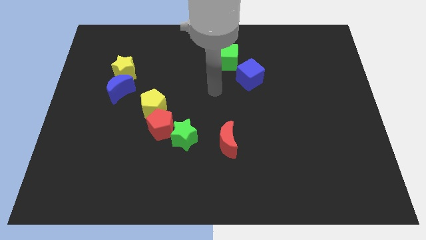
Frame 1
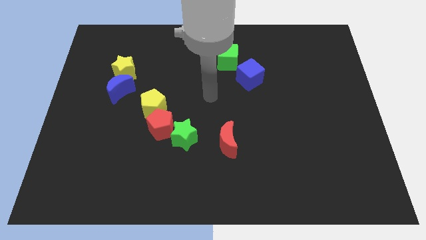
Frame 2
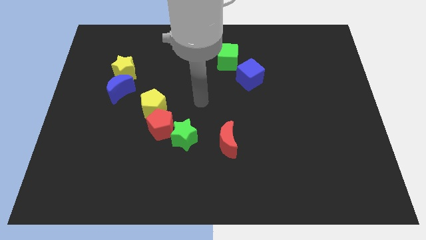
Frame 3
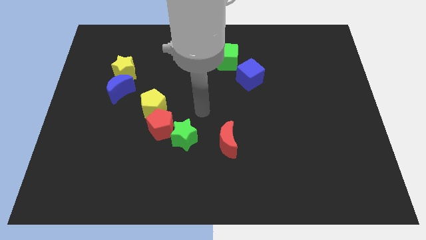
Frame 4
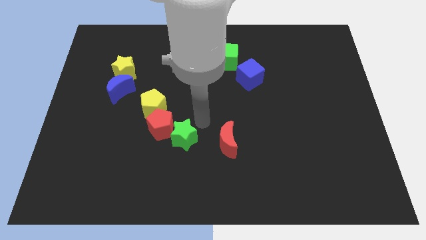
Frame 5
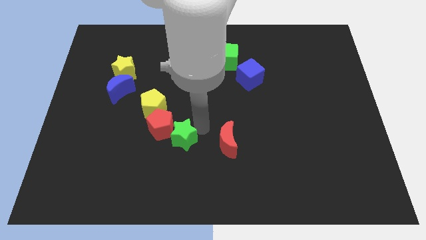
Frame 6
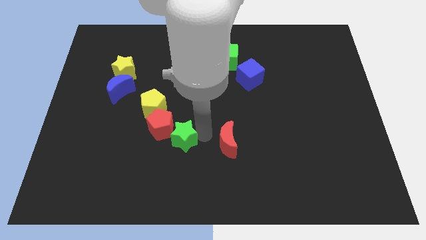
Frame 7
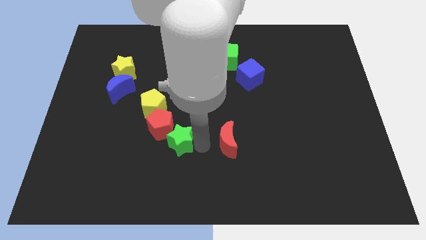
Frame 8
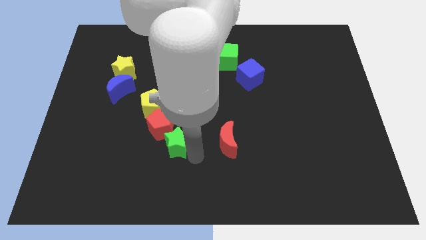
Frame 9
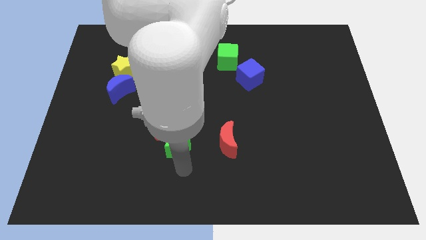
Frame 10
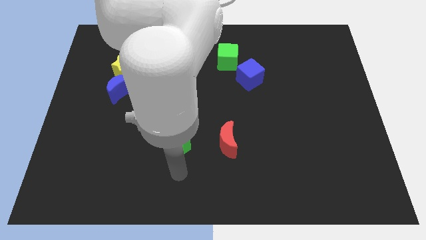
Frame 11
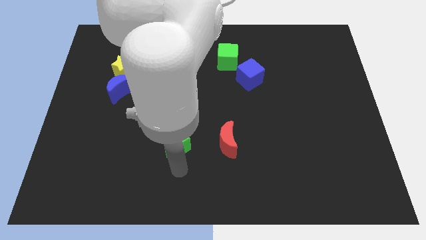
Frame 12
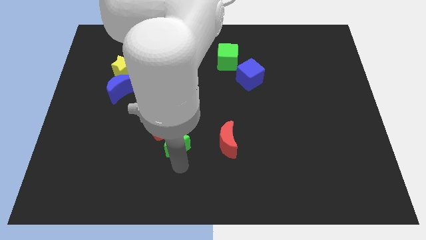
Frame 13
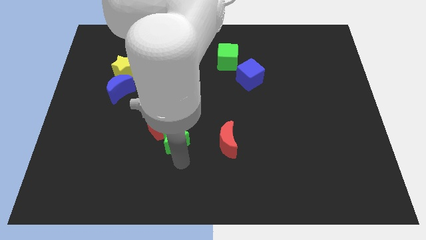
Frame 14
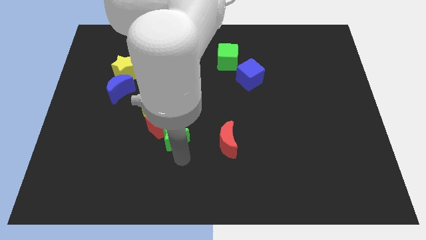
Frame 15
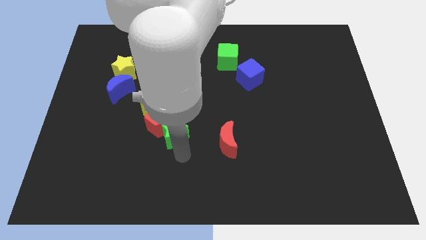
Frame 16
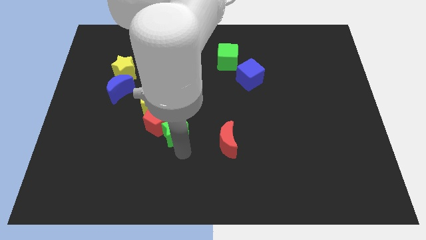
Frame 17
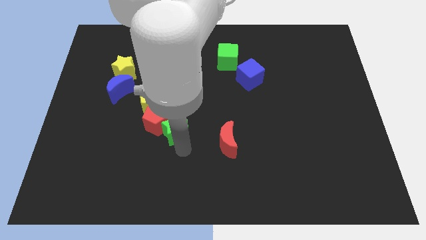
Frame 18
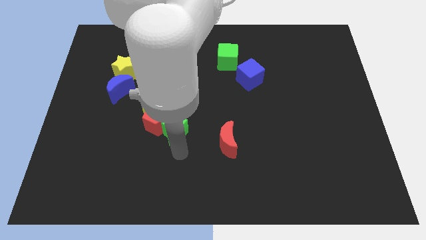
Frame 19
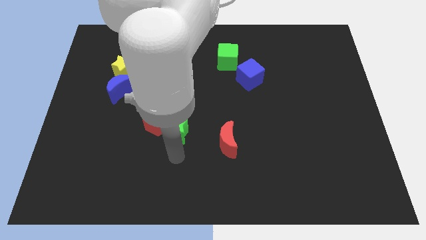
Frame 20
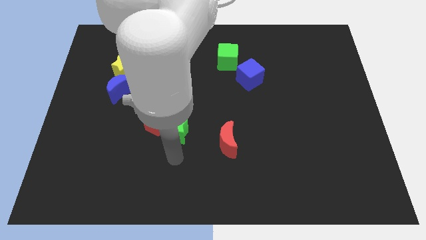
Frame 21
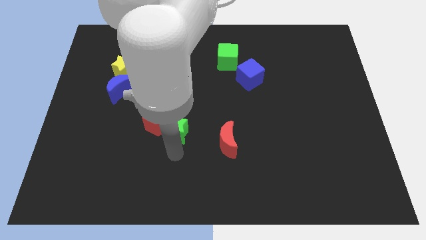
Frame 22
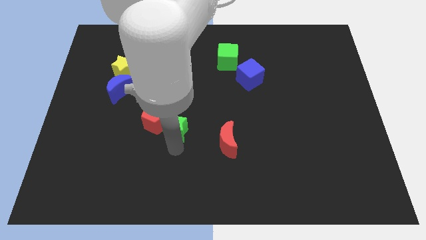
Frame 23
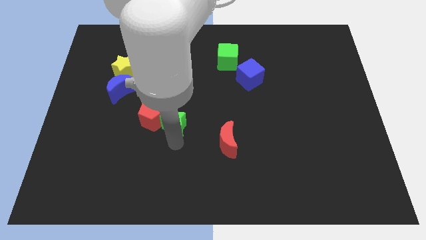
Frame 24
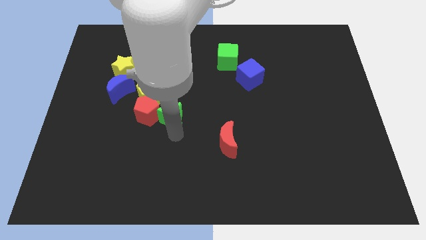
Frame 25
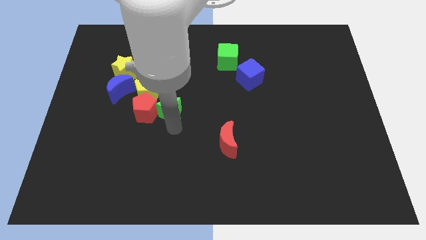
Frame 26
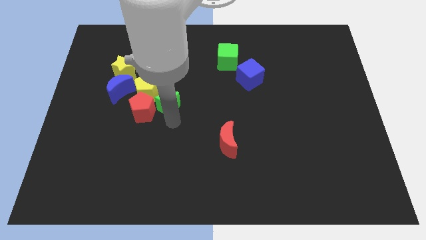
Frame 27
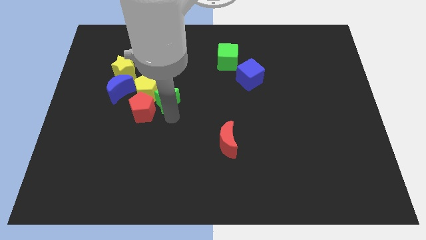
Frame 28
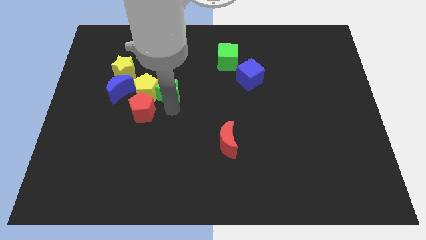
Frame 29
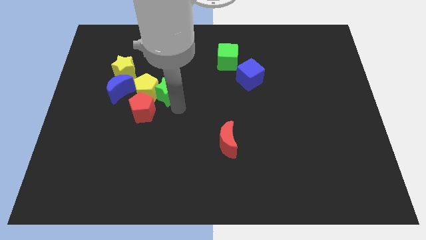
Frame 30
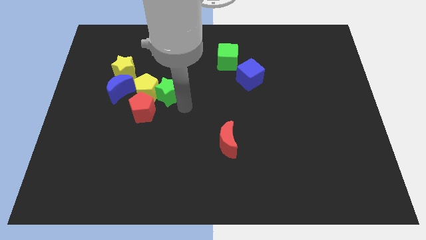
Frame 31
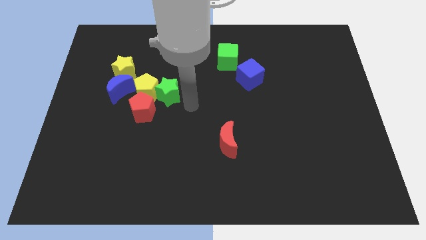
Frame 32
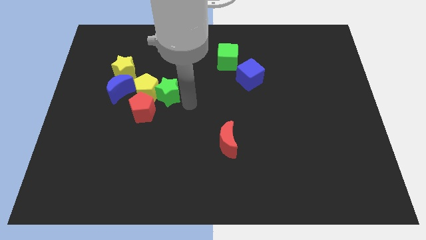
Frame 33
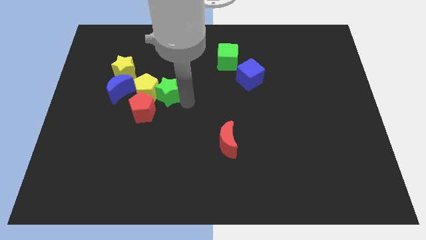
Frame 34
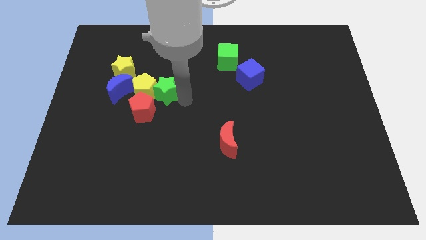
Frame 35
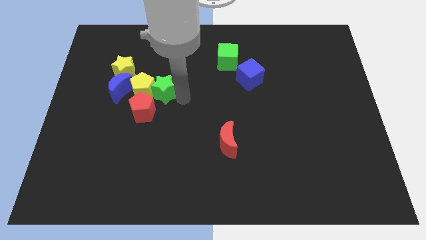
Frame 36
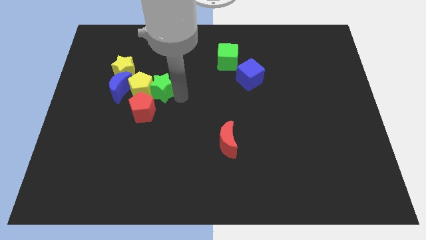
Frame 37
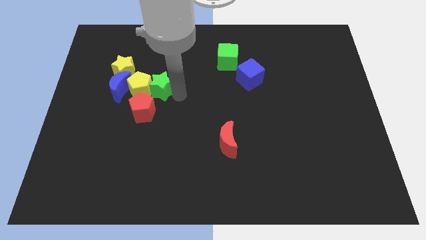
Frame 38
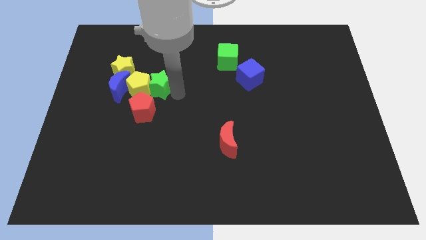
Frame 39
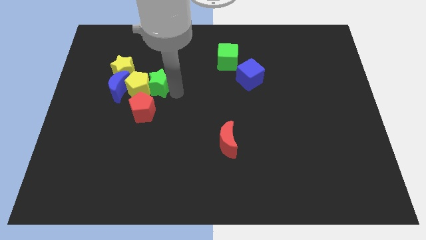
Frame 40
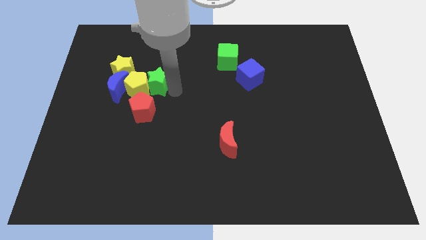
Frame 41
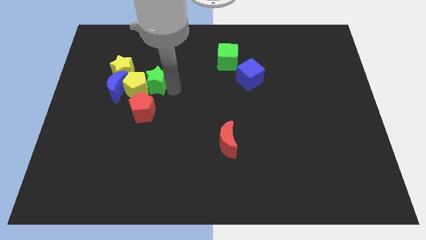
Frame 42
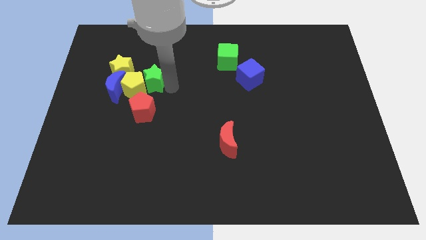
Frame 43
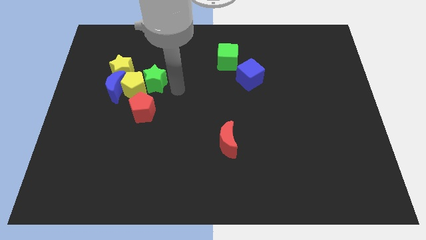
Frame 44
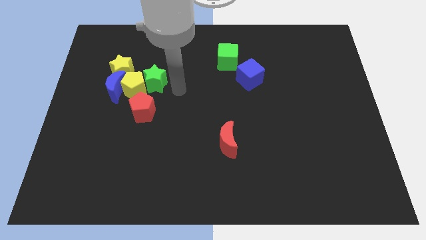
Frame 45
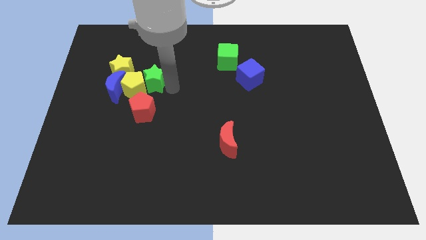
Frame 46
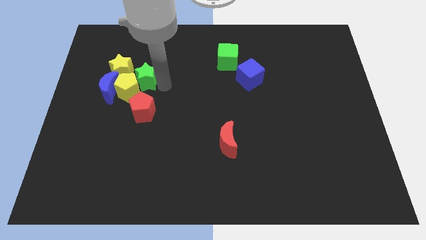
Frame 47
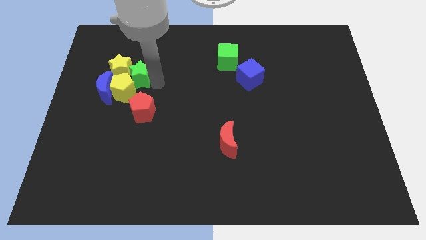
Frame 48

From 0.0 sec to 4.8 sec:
move the green star close to the yellow star

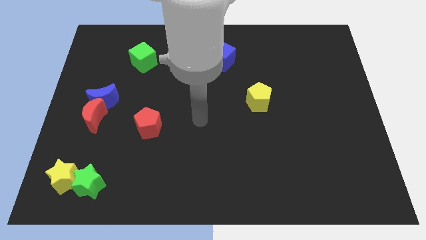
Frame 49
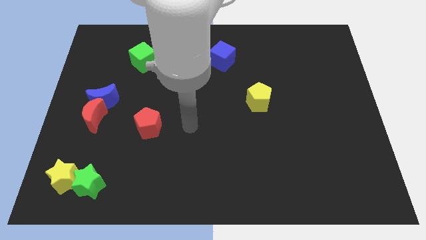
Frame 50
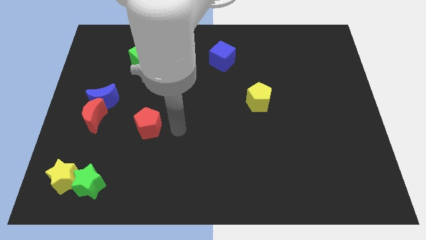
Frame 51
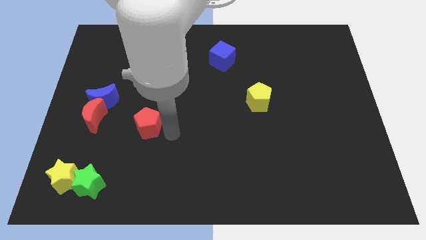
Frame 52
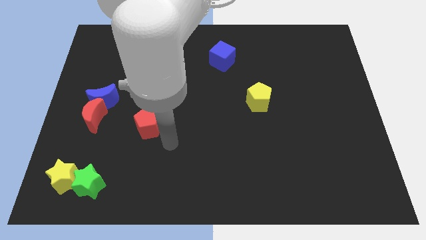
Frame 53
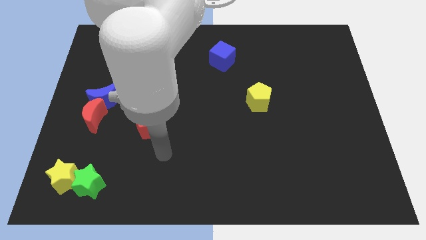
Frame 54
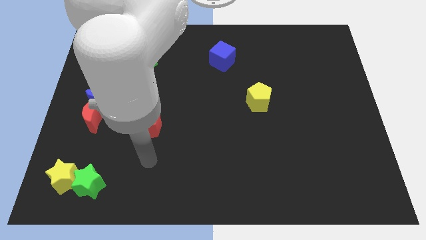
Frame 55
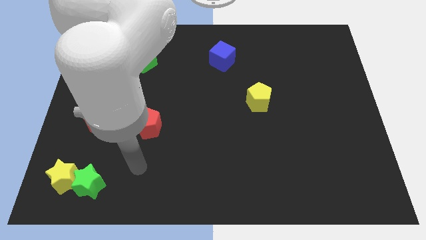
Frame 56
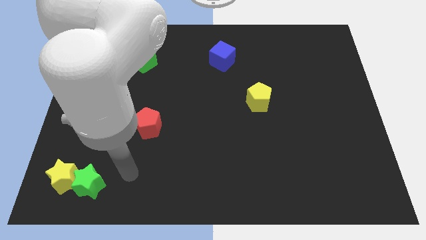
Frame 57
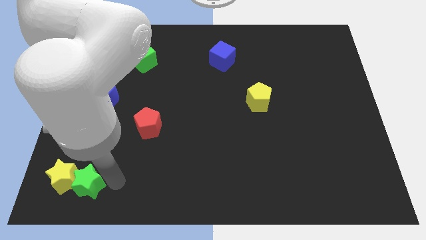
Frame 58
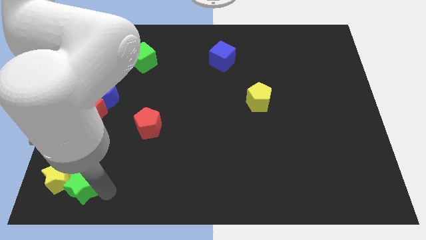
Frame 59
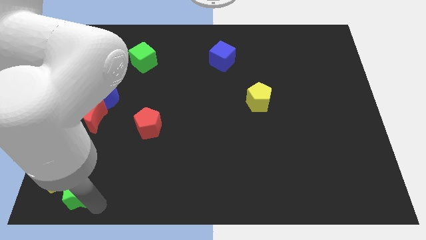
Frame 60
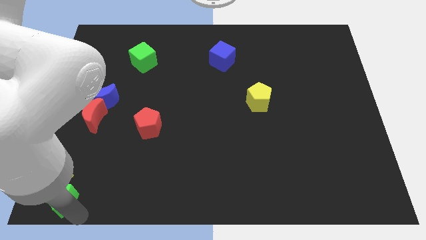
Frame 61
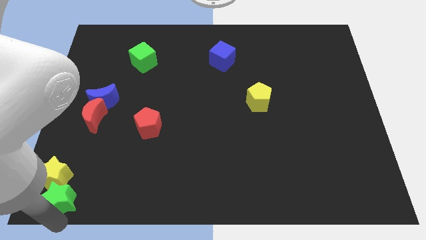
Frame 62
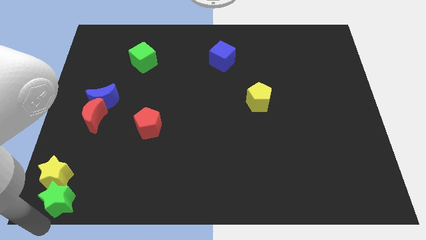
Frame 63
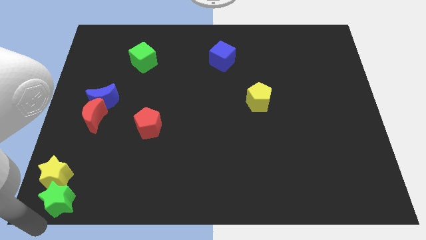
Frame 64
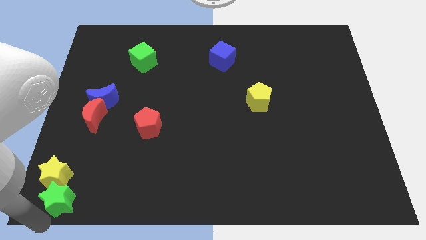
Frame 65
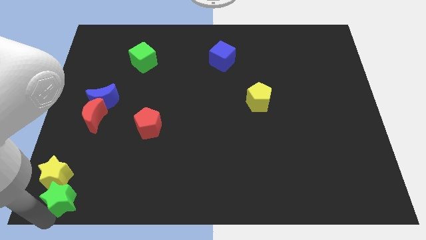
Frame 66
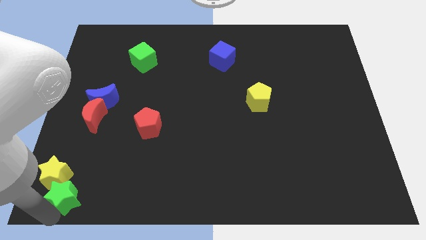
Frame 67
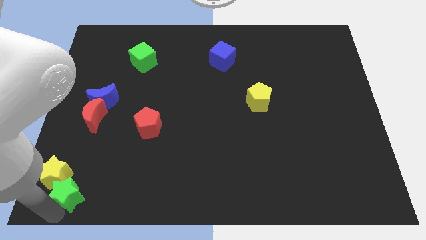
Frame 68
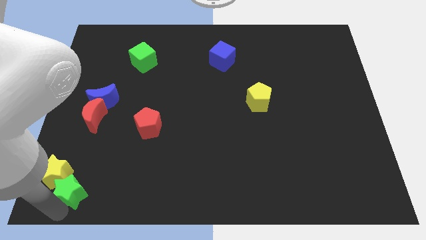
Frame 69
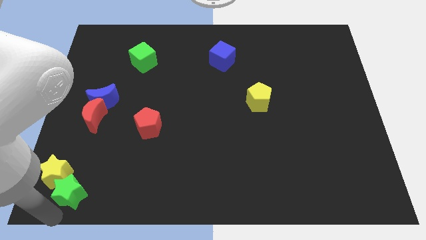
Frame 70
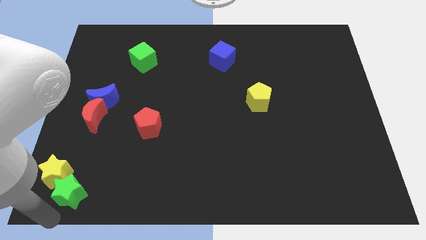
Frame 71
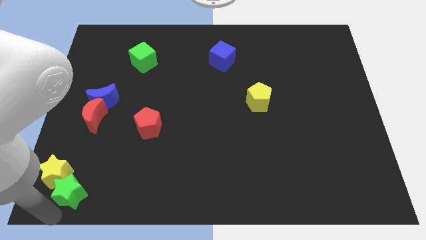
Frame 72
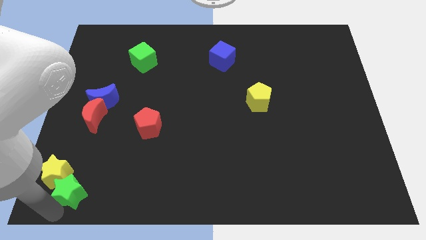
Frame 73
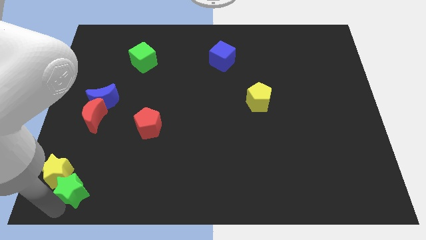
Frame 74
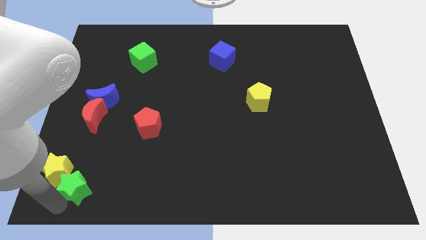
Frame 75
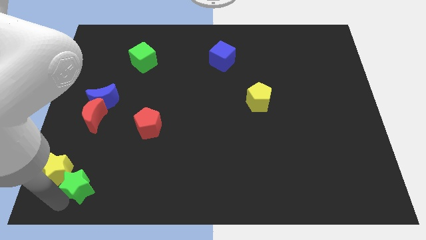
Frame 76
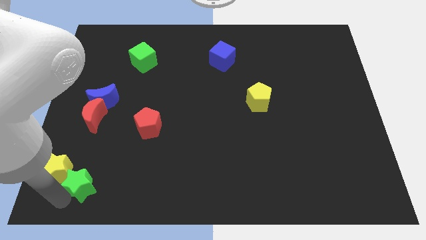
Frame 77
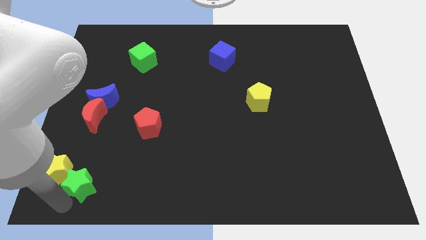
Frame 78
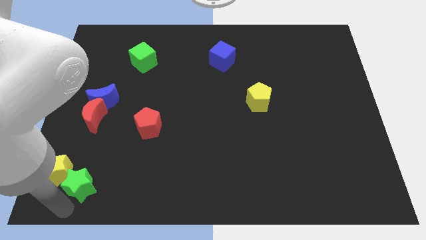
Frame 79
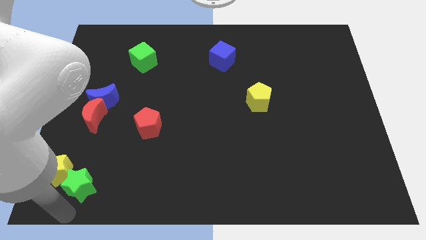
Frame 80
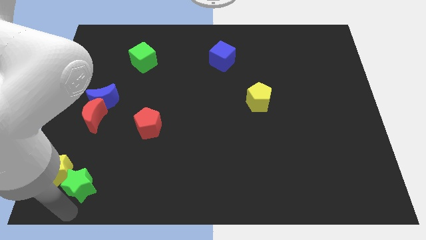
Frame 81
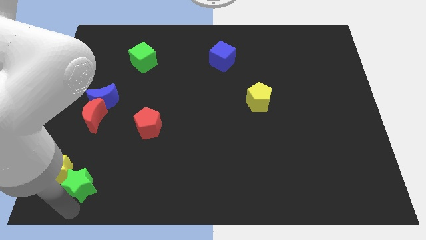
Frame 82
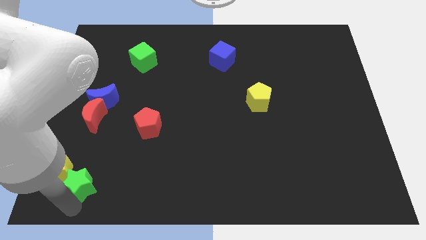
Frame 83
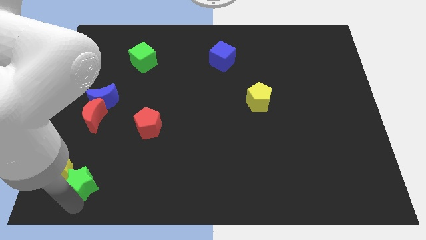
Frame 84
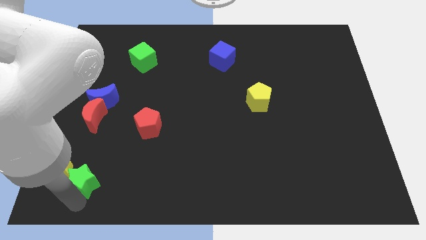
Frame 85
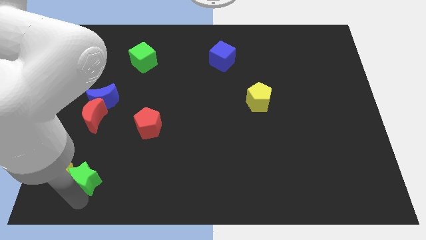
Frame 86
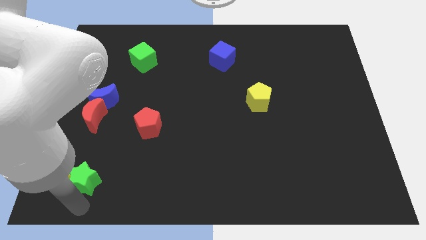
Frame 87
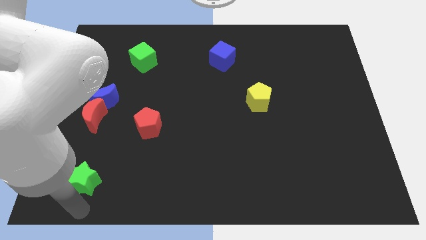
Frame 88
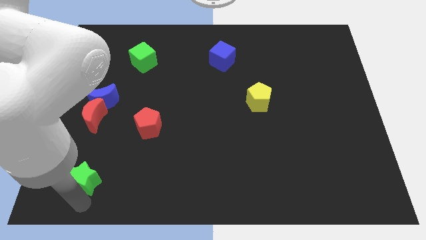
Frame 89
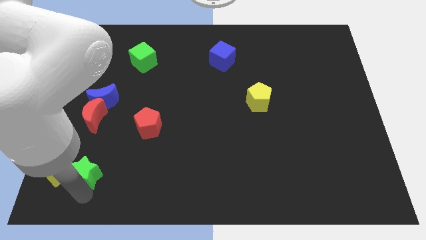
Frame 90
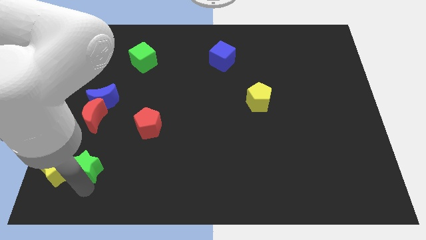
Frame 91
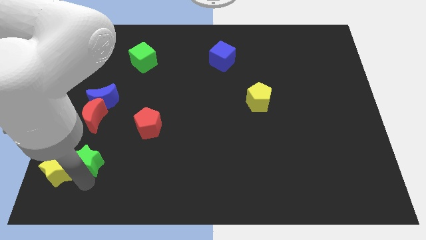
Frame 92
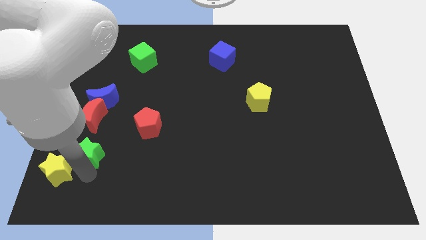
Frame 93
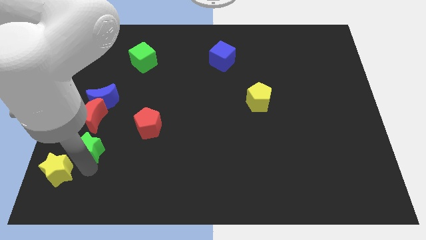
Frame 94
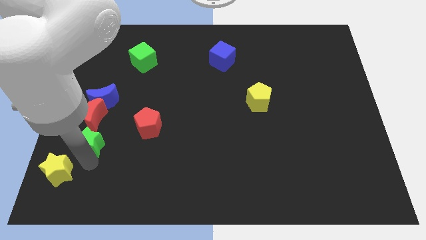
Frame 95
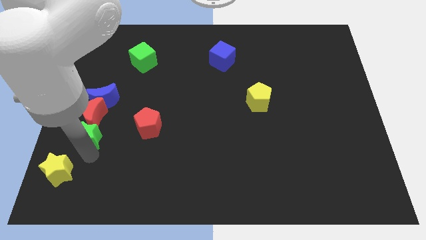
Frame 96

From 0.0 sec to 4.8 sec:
push the green star next to the red moon
